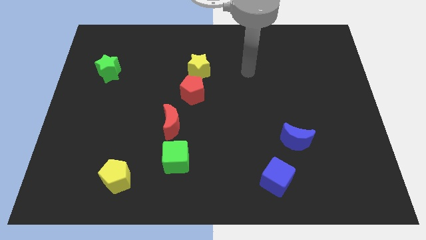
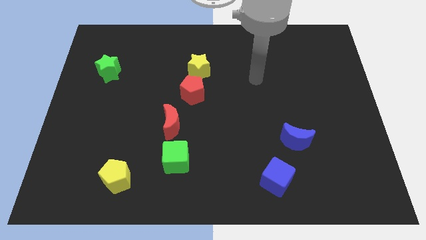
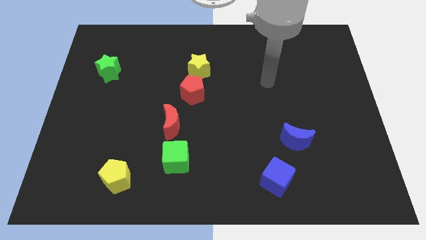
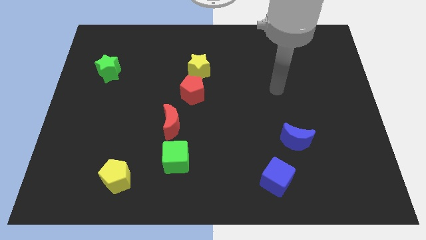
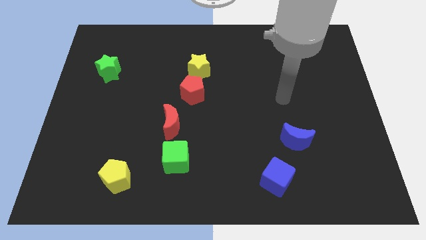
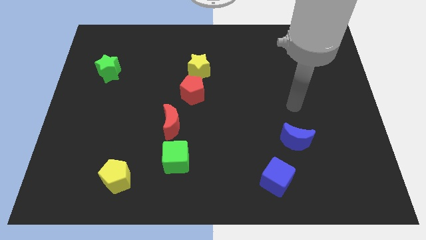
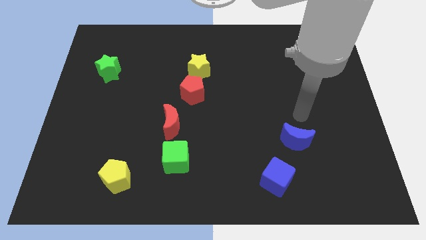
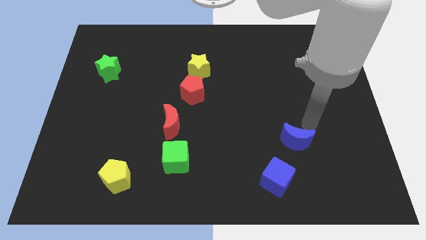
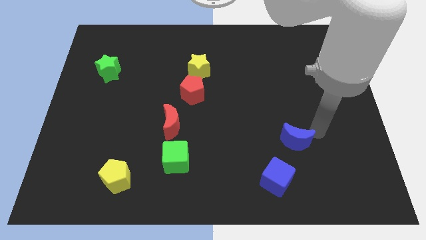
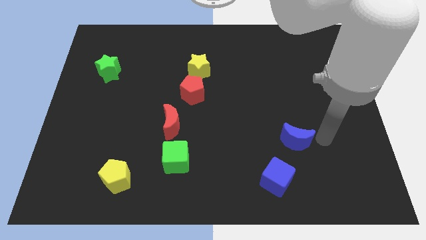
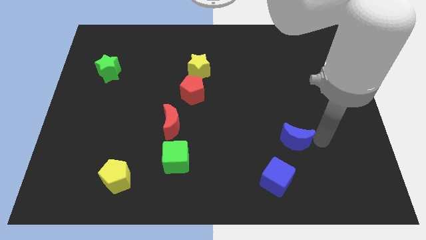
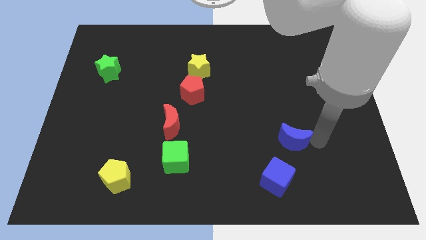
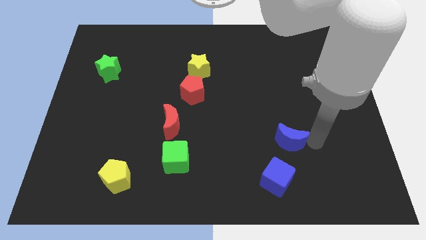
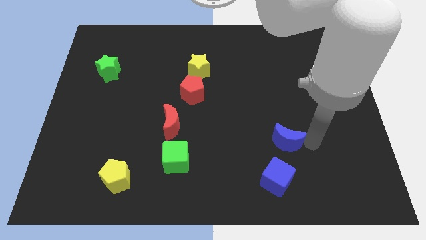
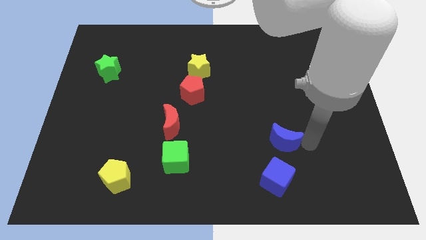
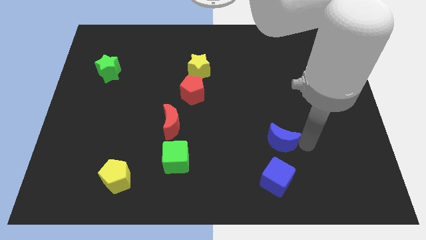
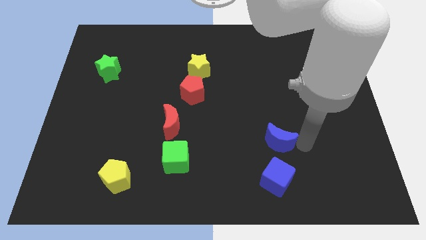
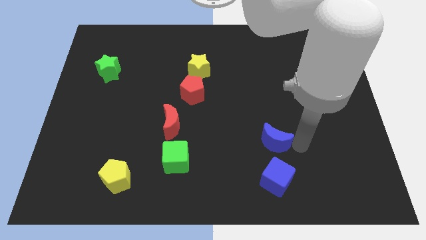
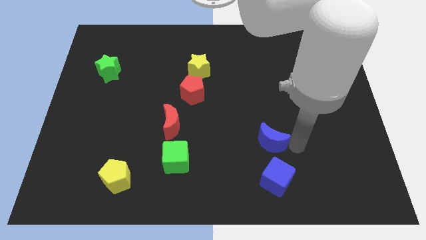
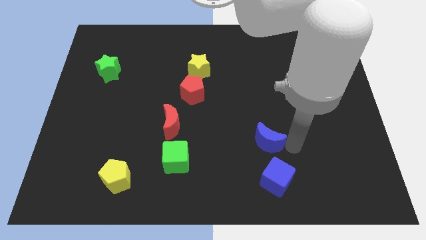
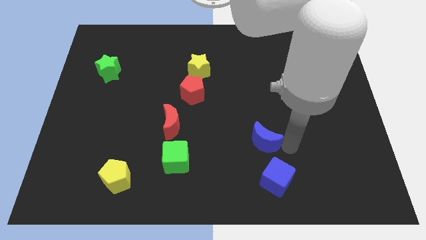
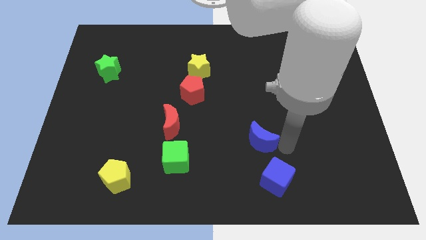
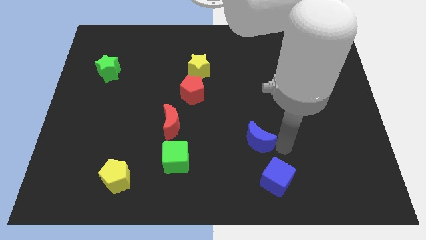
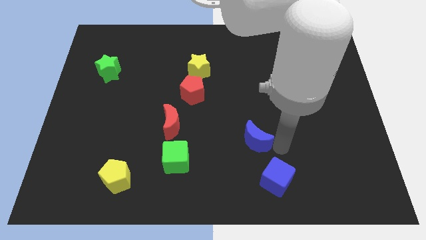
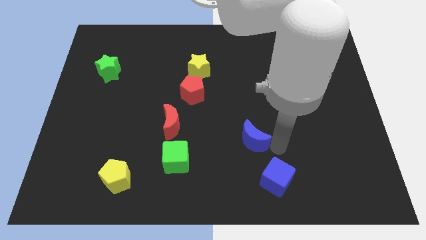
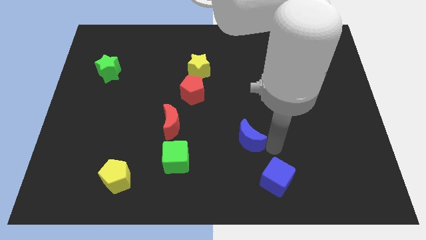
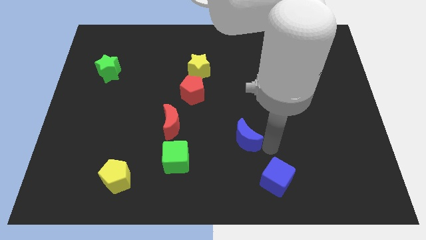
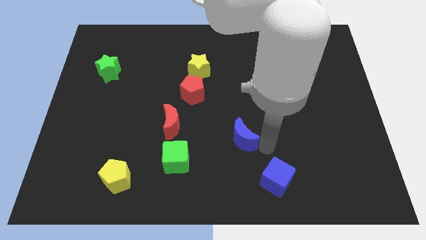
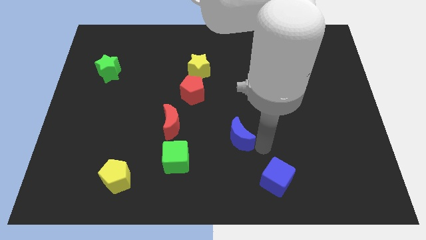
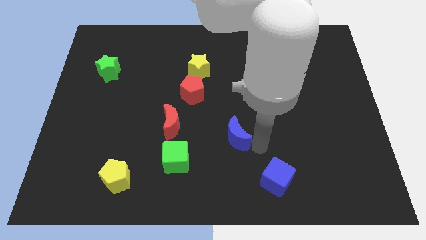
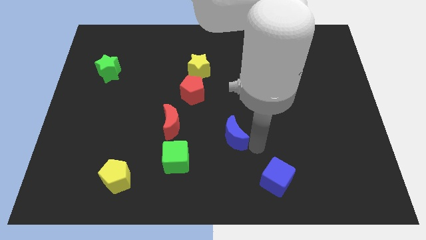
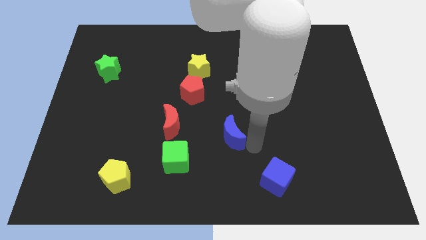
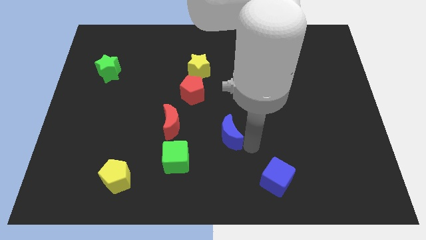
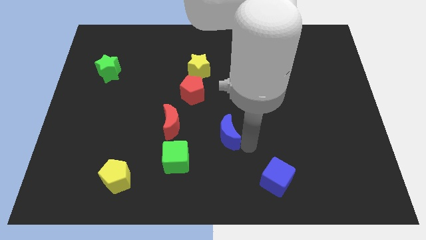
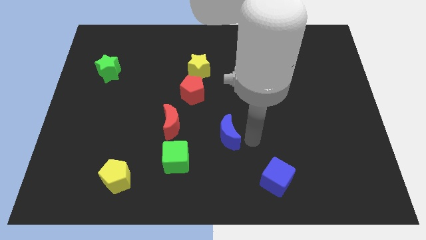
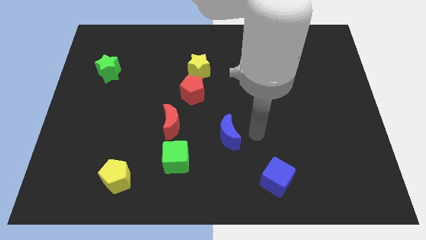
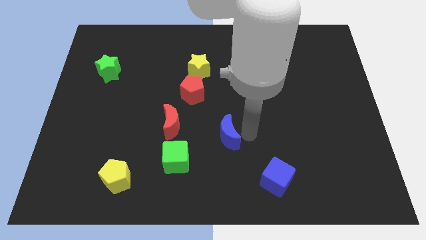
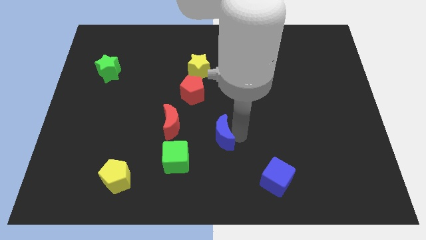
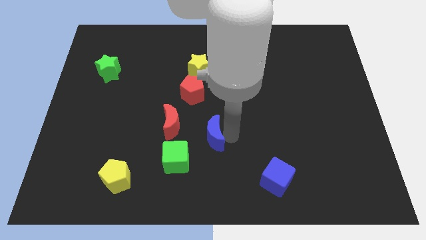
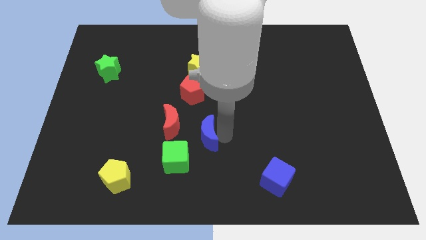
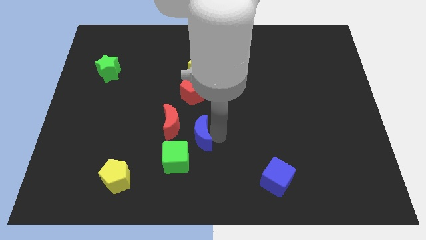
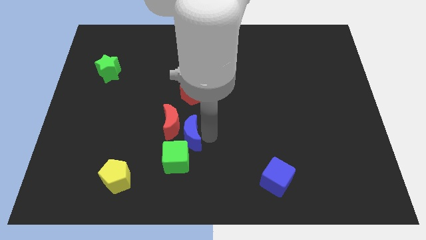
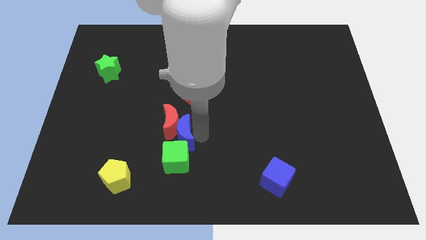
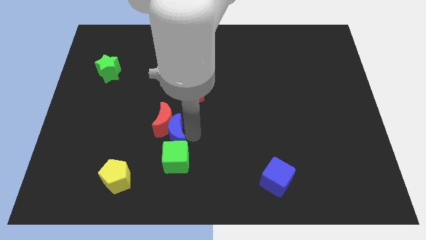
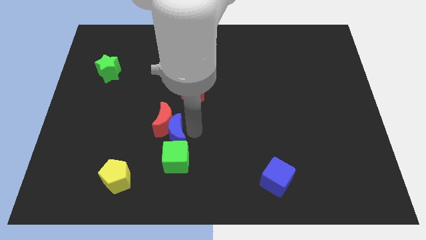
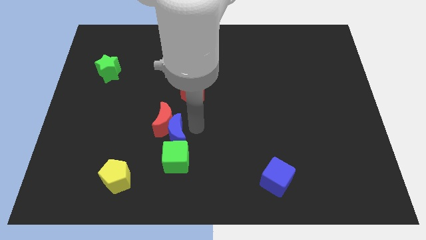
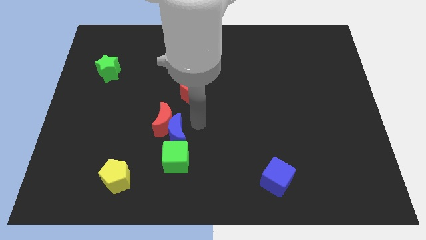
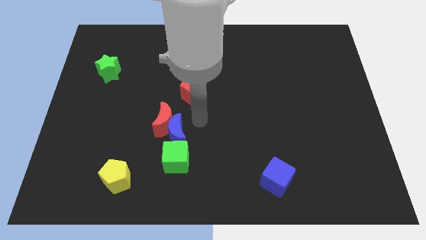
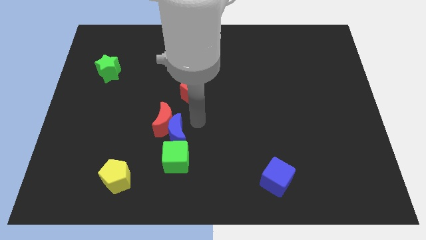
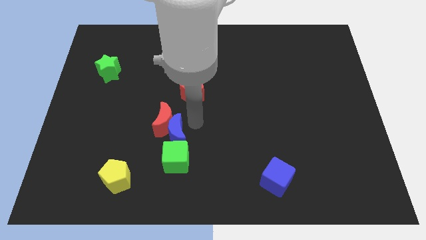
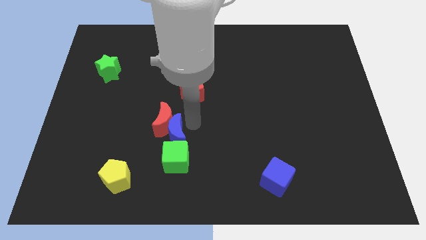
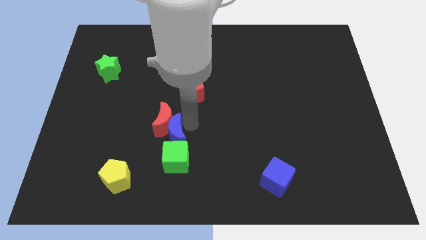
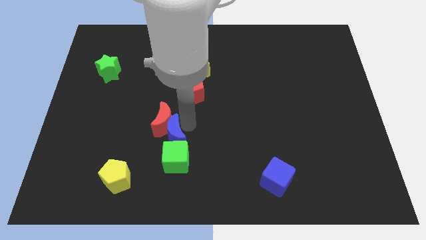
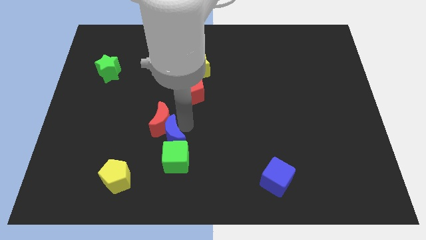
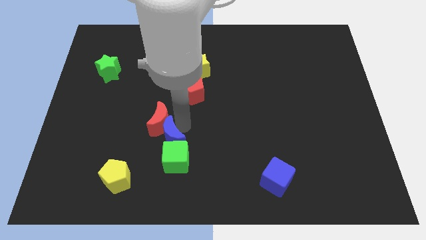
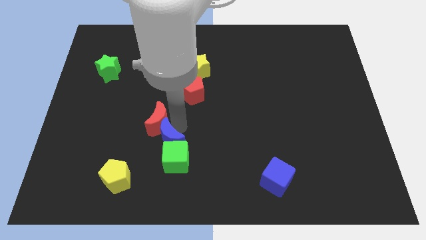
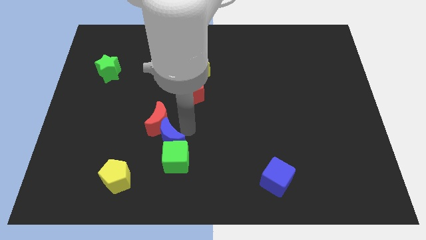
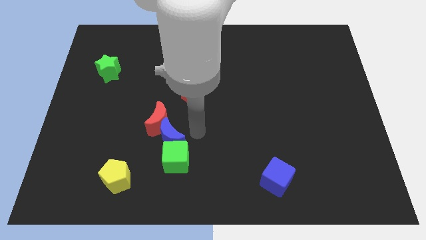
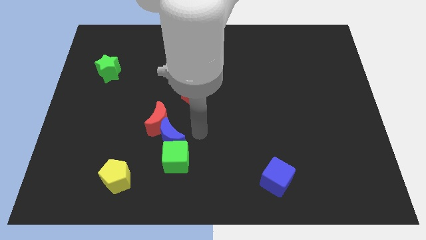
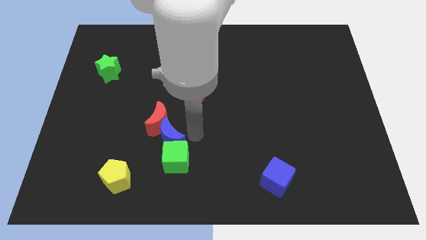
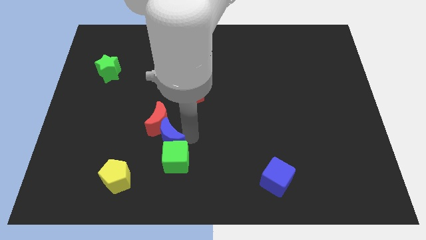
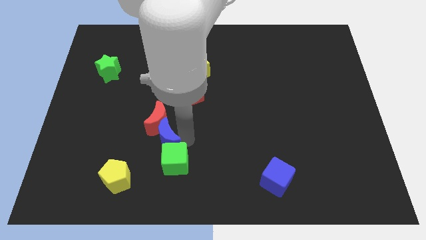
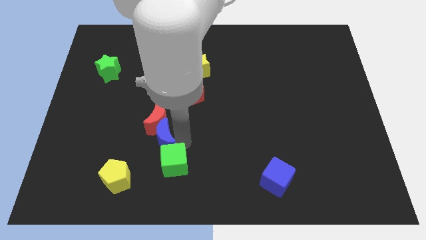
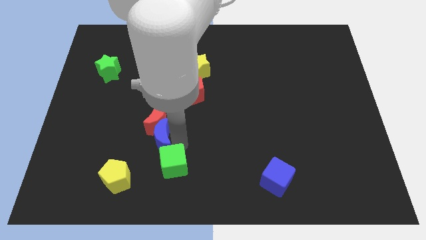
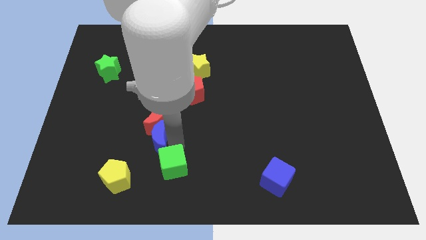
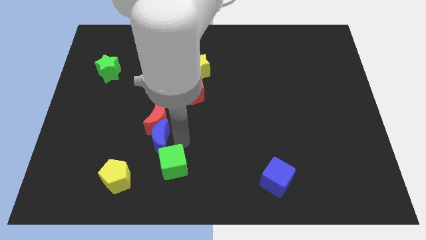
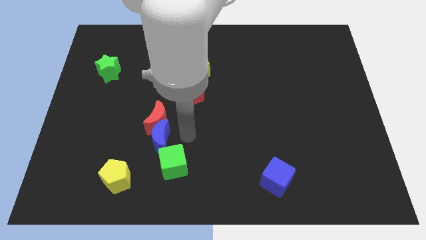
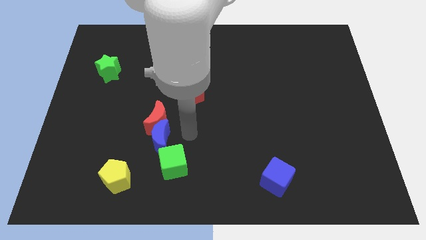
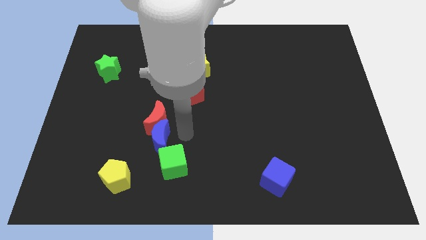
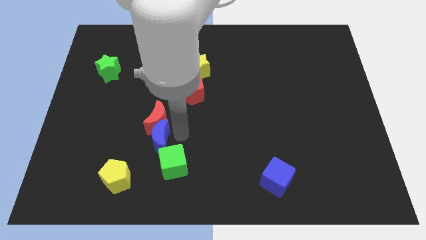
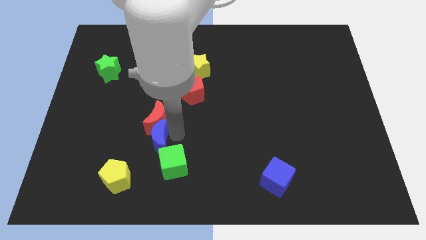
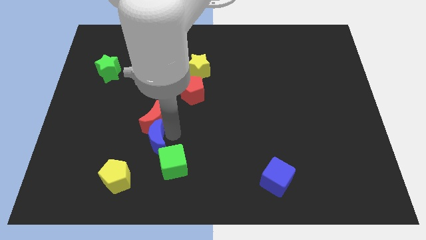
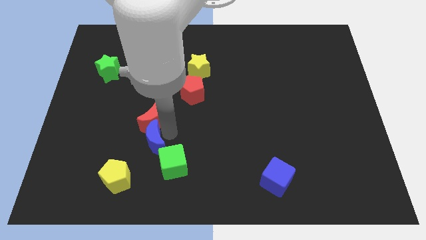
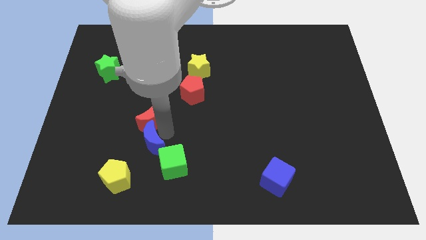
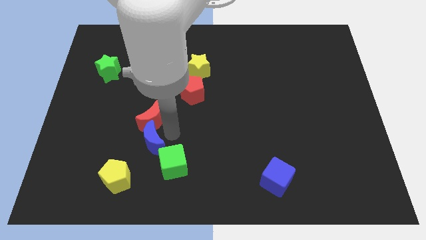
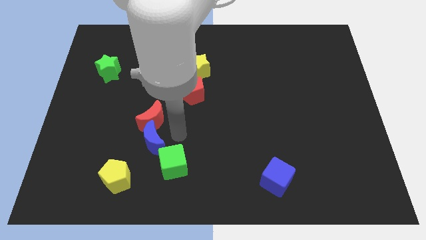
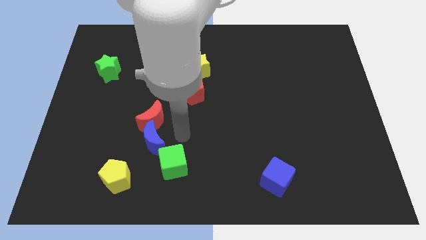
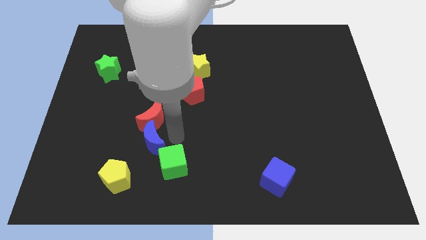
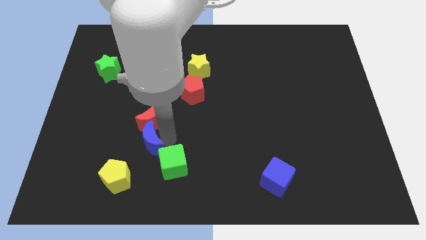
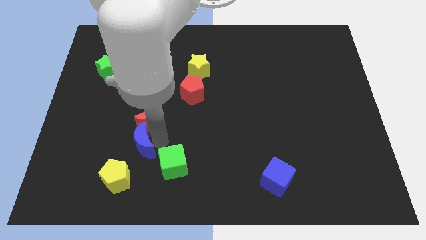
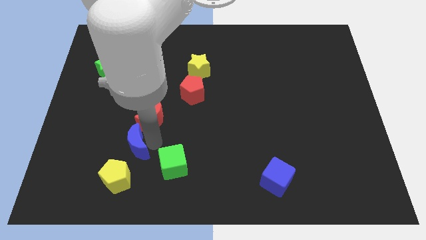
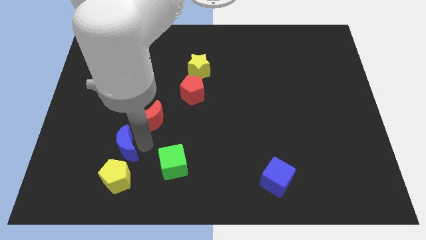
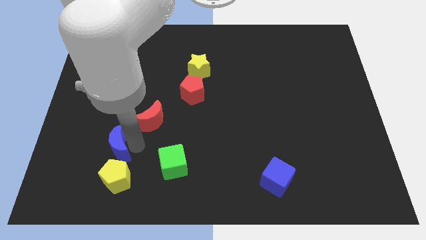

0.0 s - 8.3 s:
slide the blue moon to the top left of the yellow pentagon

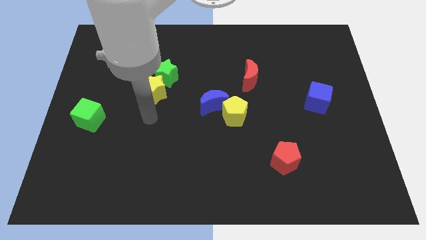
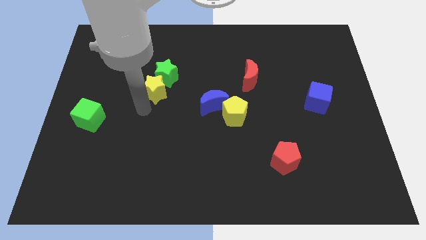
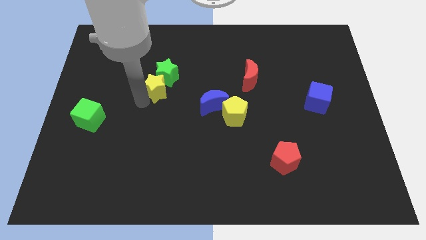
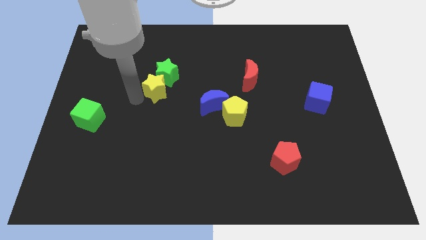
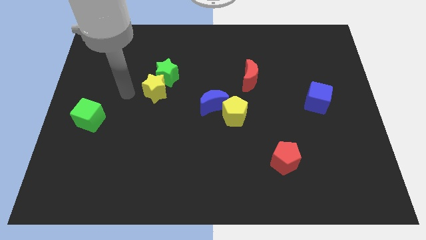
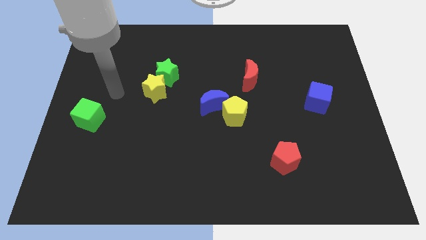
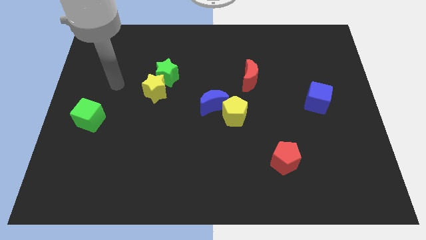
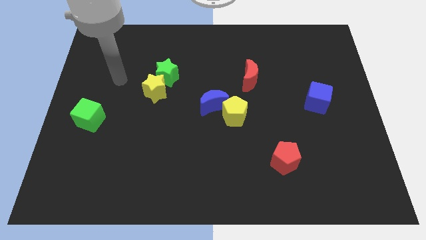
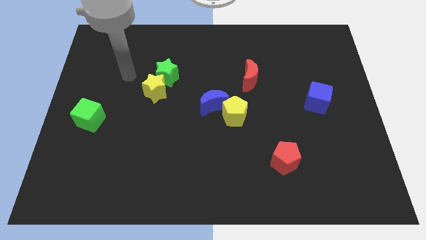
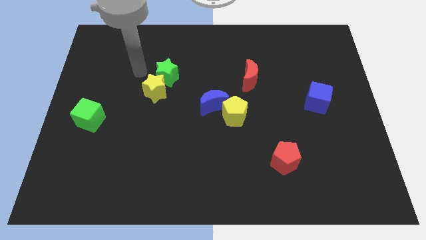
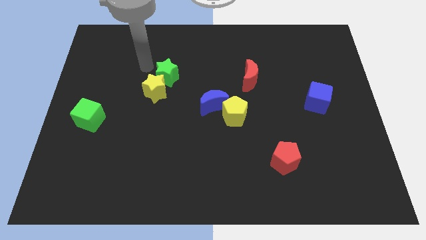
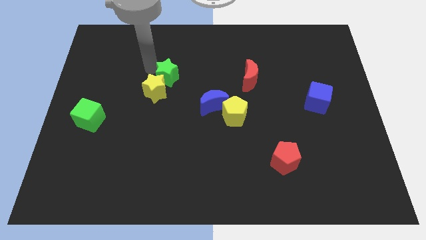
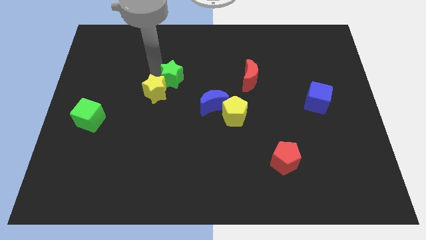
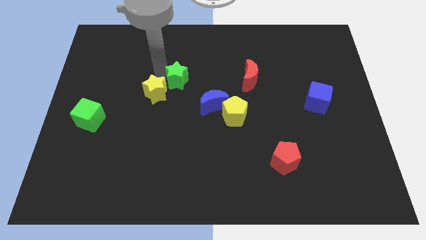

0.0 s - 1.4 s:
push the green star to the right of the yellow star
